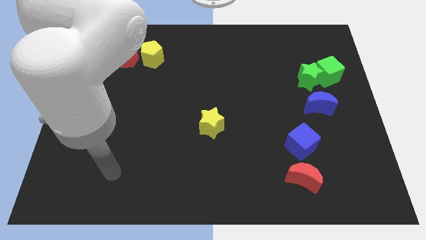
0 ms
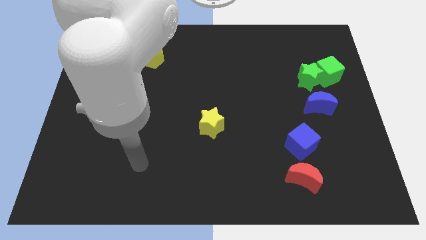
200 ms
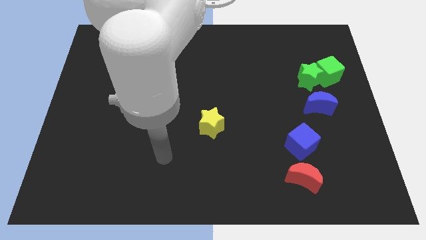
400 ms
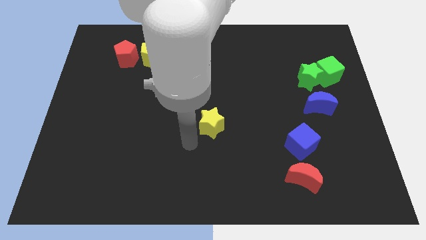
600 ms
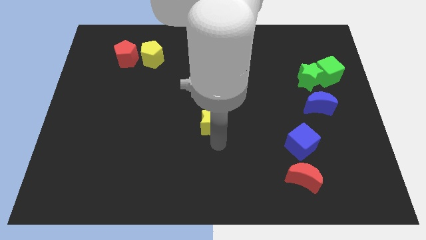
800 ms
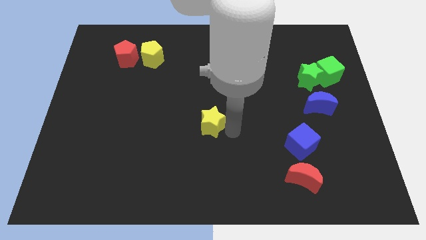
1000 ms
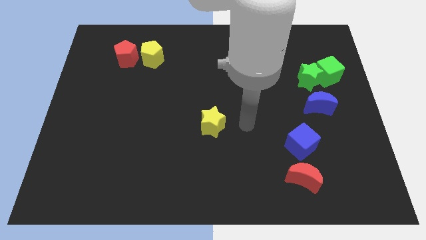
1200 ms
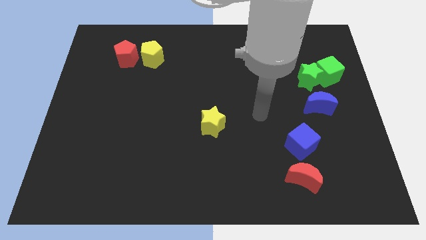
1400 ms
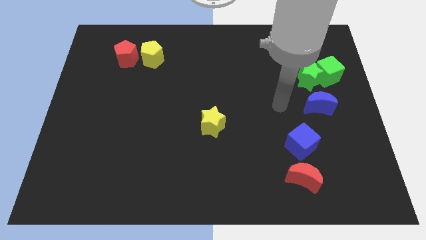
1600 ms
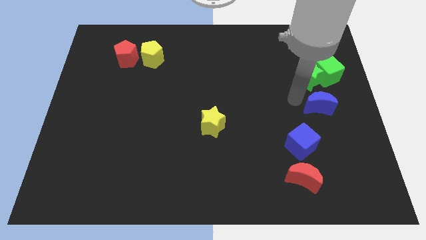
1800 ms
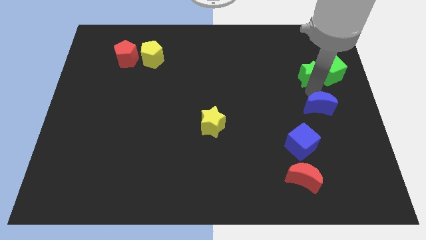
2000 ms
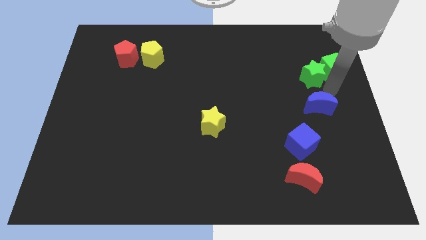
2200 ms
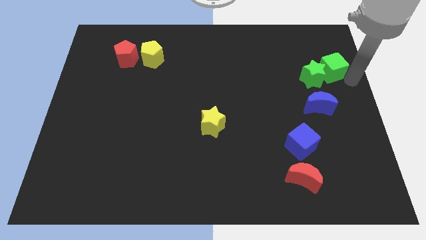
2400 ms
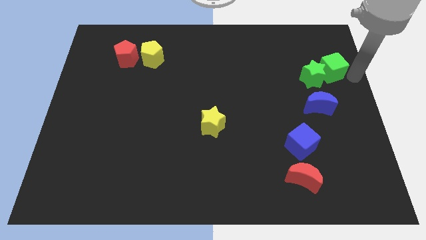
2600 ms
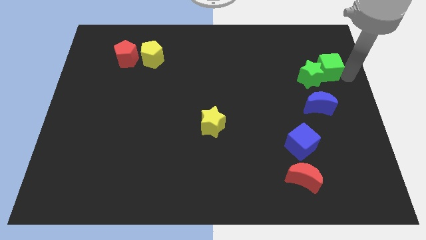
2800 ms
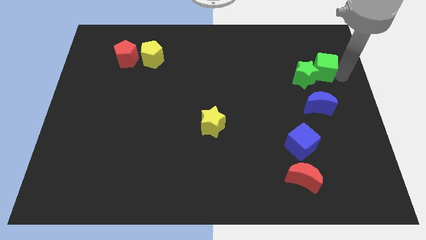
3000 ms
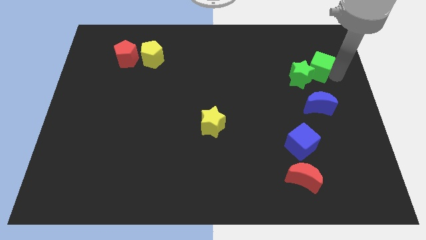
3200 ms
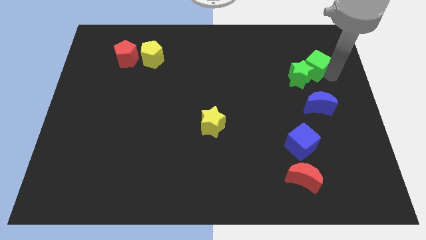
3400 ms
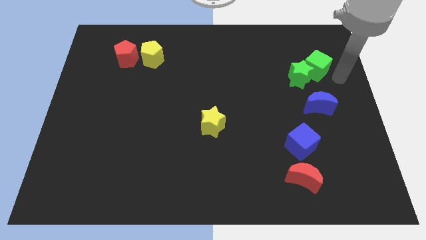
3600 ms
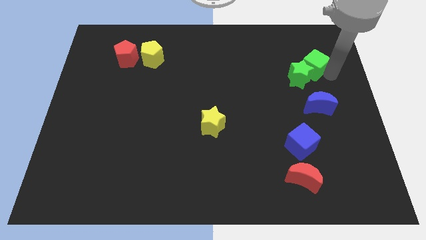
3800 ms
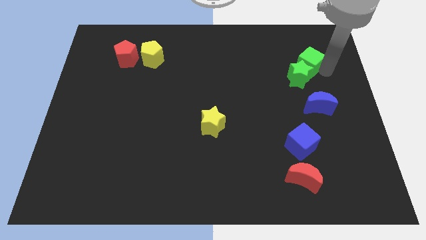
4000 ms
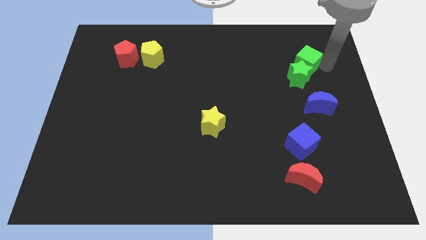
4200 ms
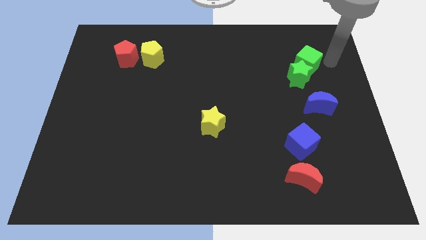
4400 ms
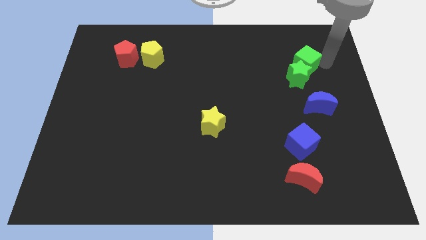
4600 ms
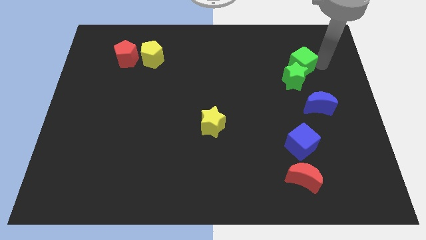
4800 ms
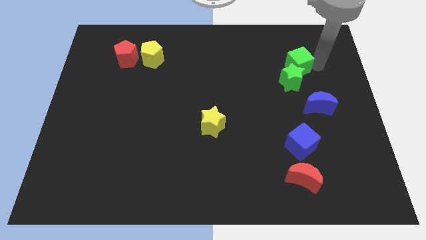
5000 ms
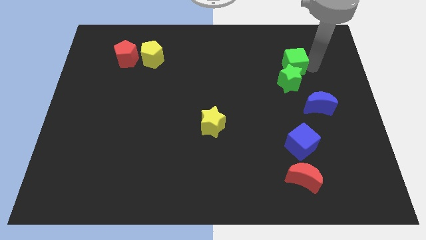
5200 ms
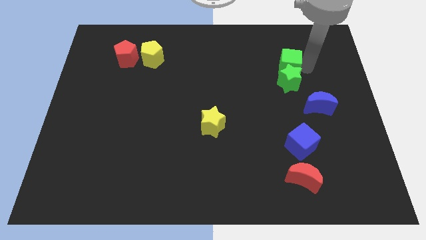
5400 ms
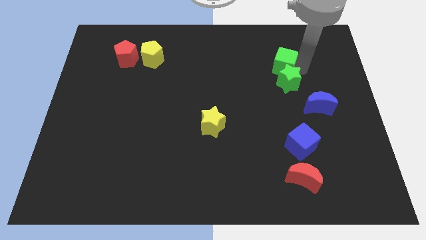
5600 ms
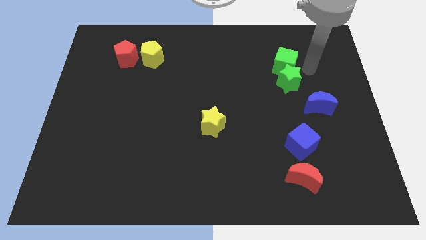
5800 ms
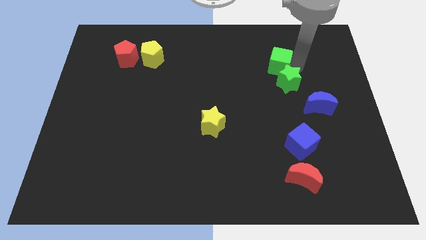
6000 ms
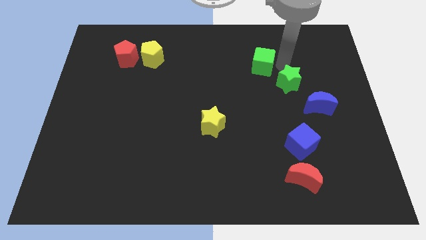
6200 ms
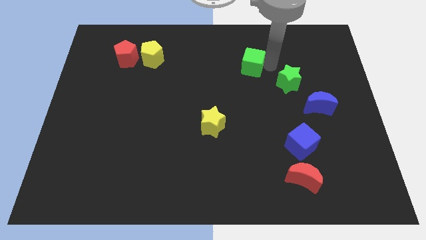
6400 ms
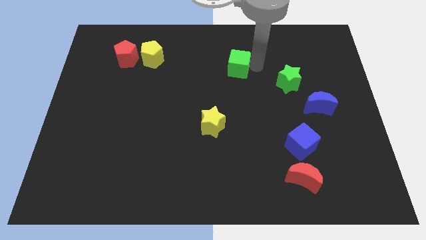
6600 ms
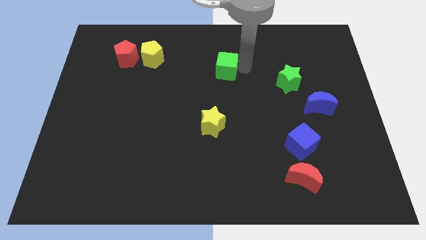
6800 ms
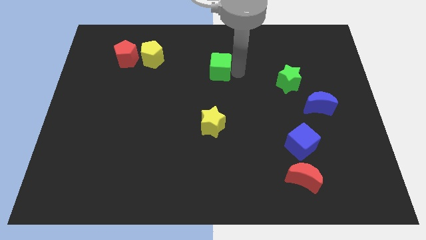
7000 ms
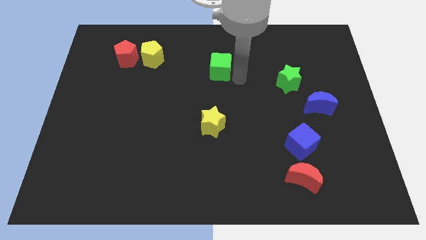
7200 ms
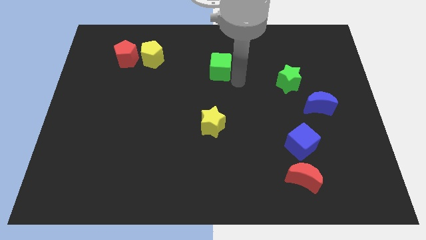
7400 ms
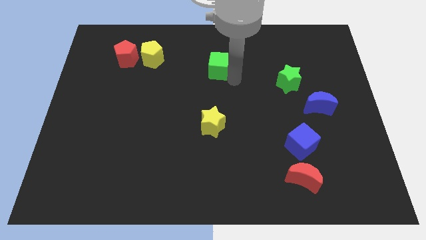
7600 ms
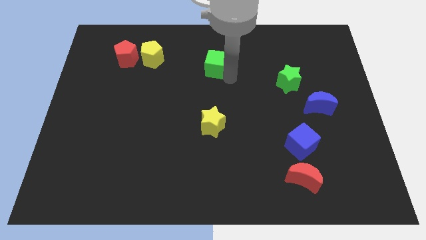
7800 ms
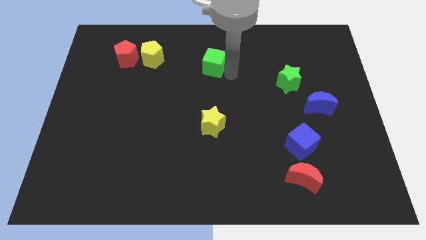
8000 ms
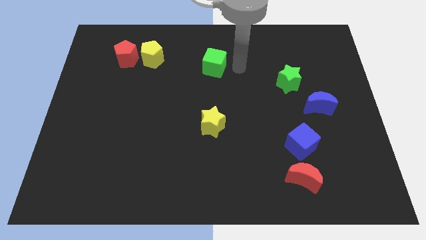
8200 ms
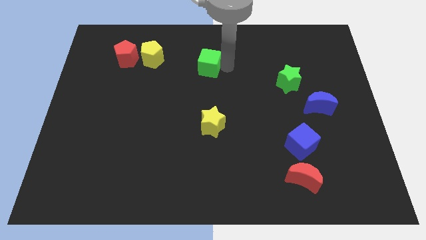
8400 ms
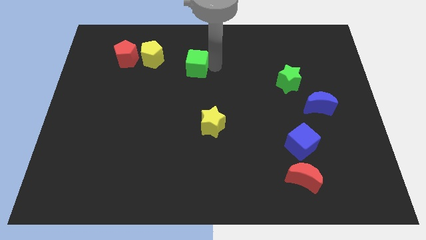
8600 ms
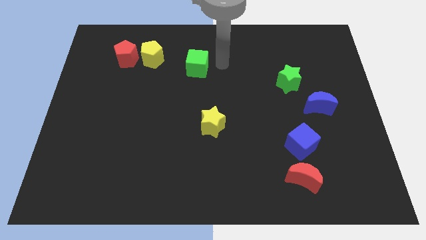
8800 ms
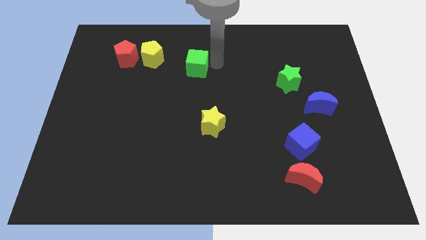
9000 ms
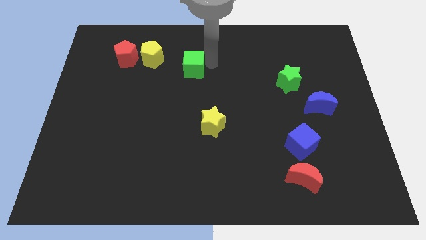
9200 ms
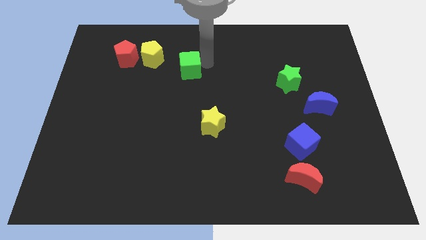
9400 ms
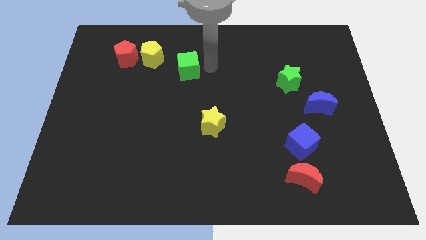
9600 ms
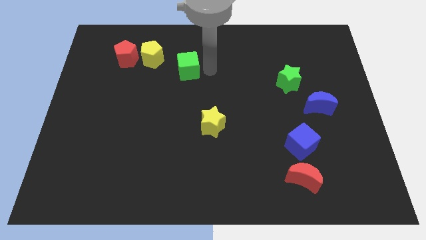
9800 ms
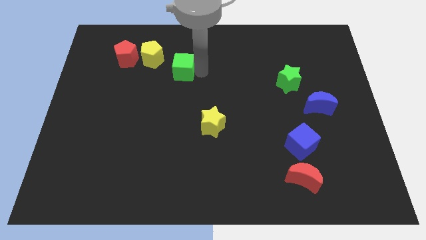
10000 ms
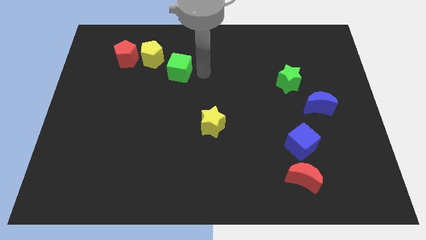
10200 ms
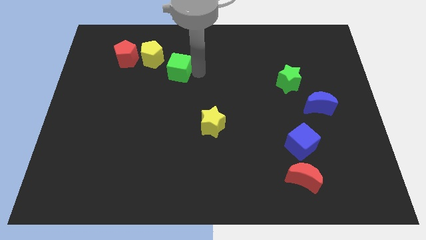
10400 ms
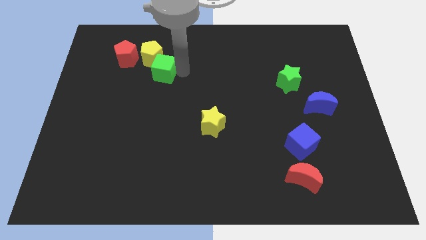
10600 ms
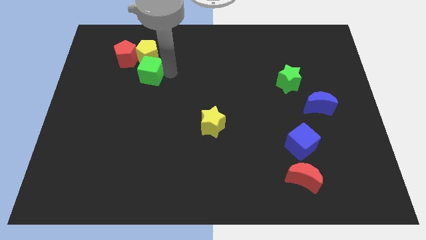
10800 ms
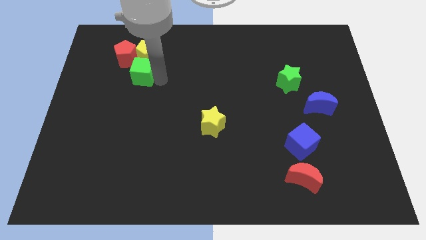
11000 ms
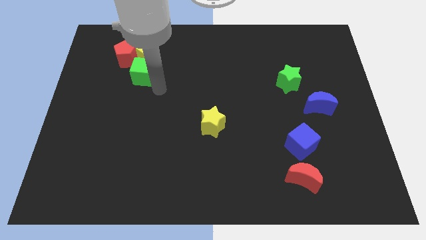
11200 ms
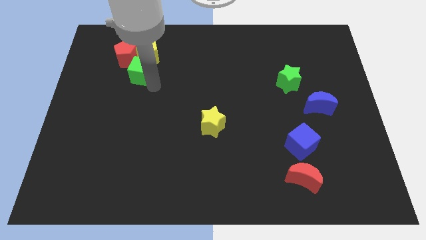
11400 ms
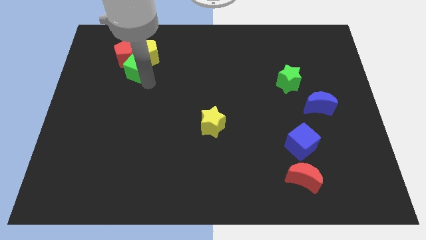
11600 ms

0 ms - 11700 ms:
move the green cube next to the red pentagon

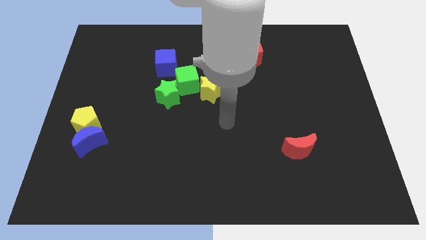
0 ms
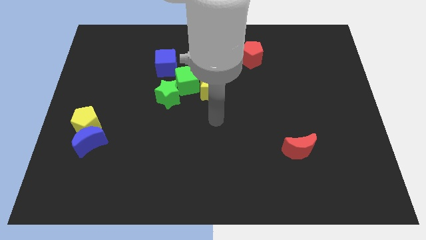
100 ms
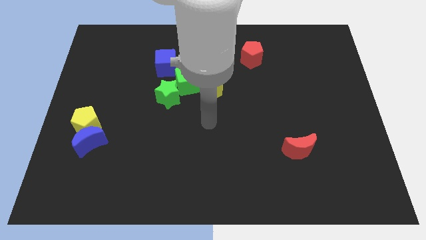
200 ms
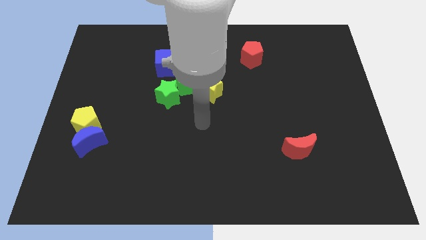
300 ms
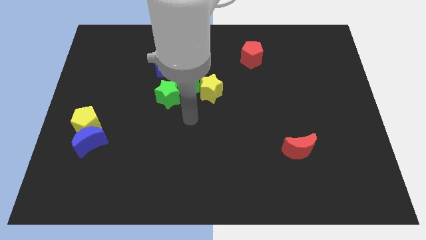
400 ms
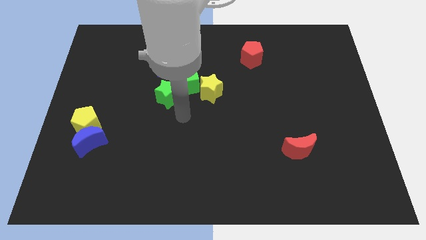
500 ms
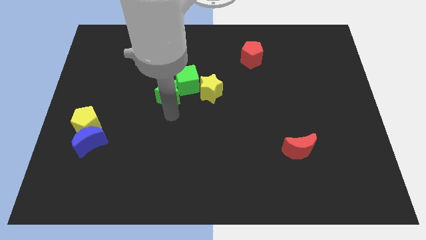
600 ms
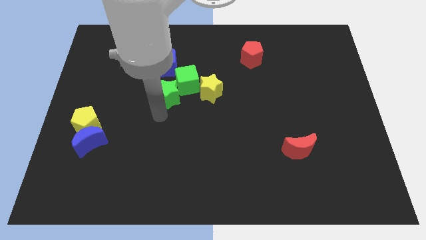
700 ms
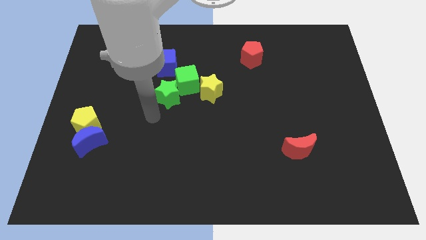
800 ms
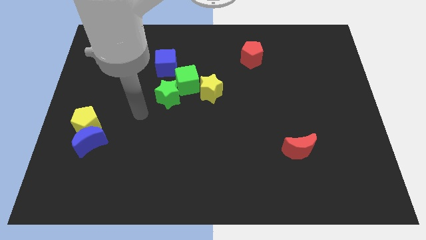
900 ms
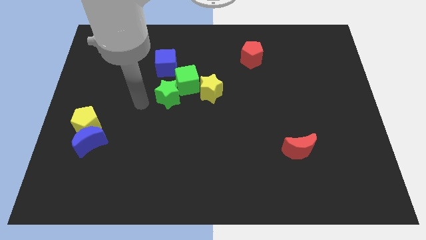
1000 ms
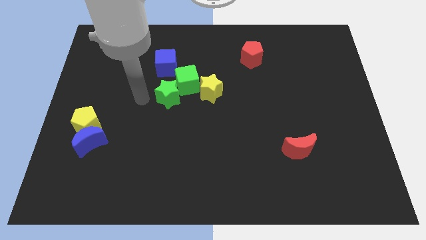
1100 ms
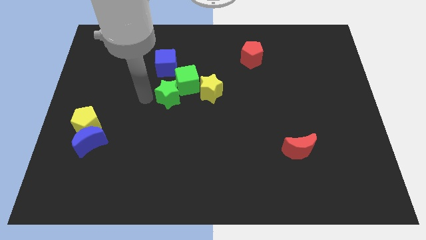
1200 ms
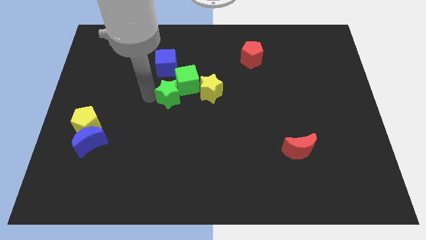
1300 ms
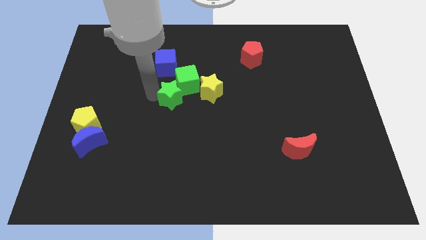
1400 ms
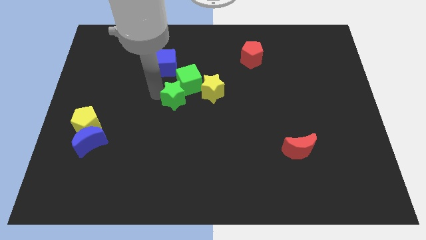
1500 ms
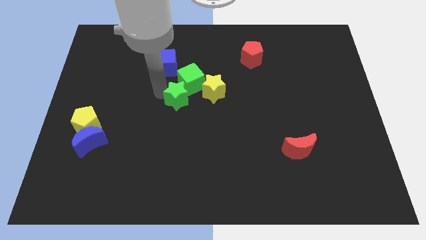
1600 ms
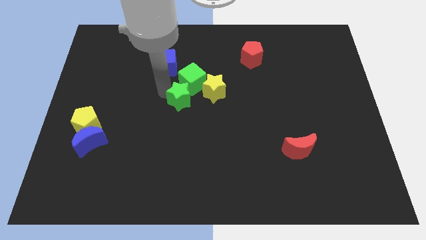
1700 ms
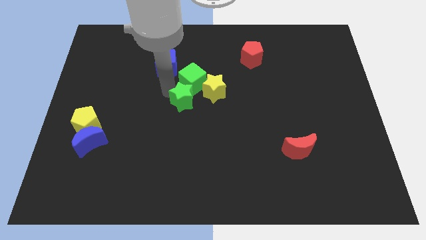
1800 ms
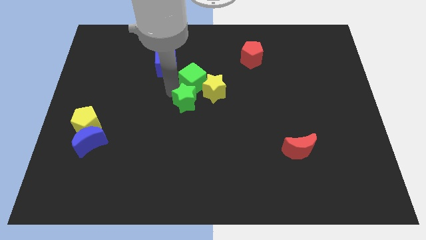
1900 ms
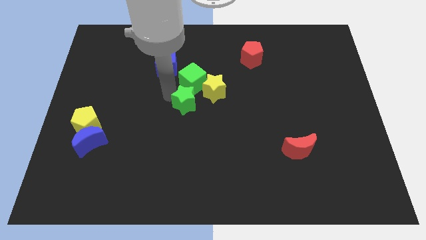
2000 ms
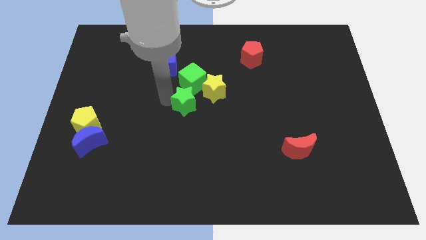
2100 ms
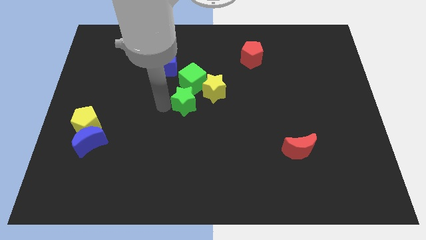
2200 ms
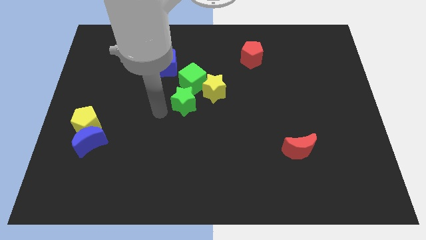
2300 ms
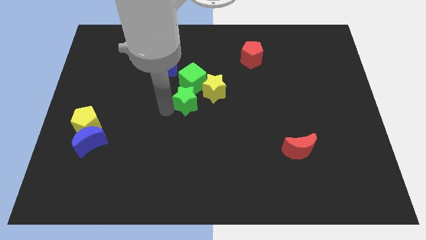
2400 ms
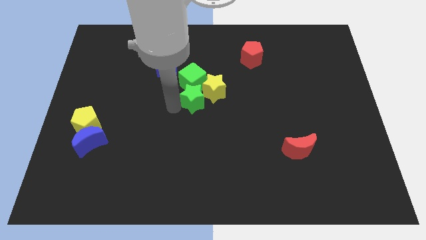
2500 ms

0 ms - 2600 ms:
push the green star towards the yellow star
